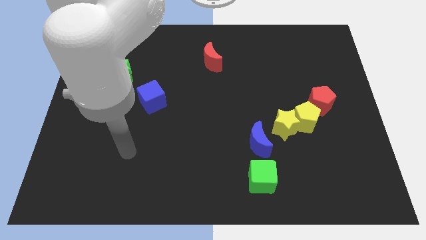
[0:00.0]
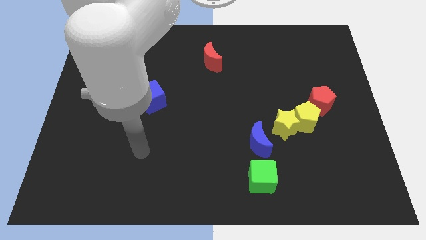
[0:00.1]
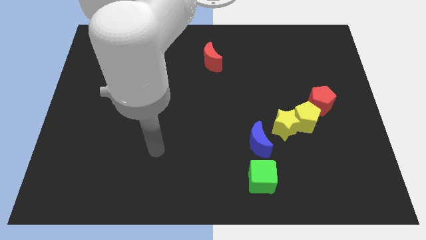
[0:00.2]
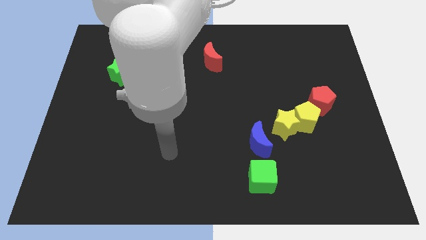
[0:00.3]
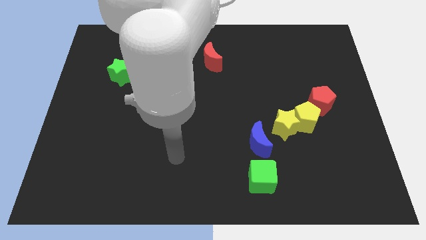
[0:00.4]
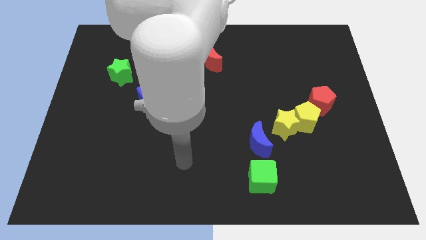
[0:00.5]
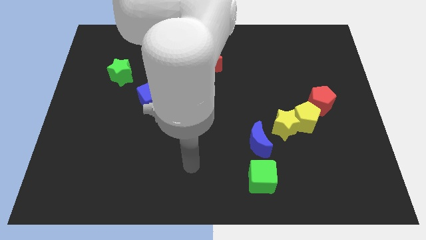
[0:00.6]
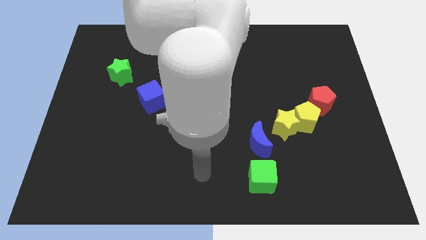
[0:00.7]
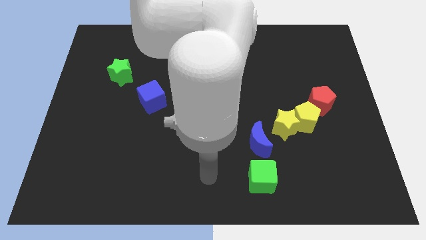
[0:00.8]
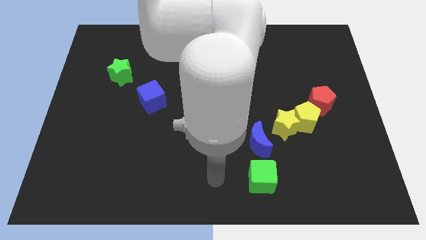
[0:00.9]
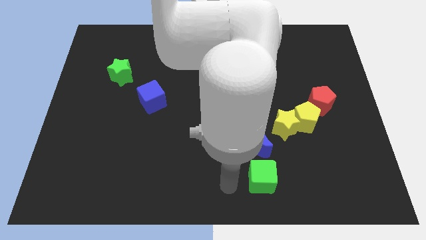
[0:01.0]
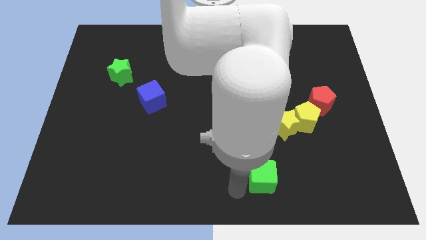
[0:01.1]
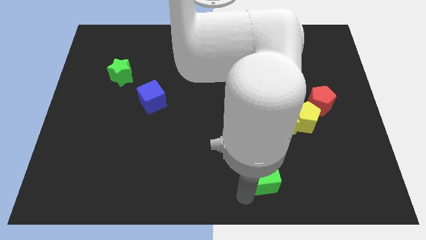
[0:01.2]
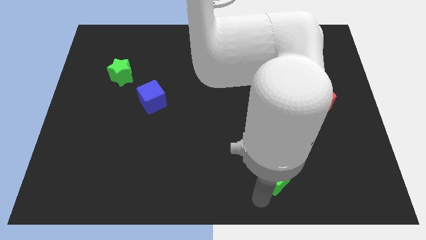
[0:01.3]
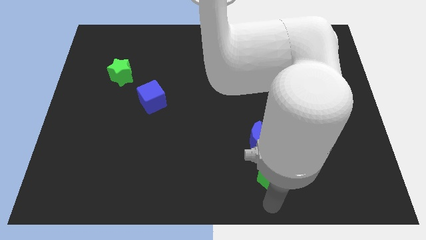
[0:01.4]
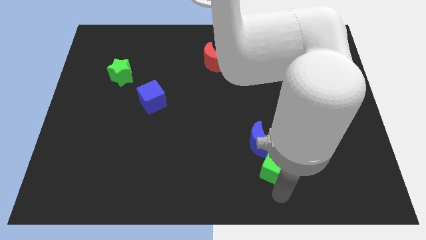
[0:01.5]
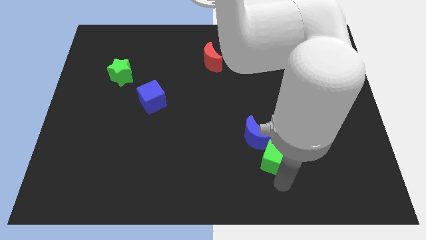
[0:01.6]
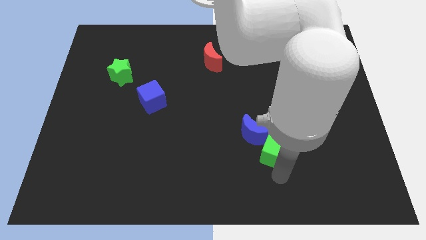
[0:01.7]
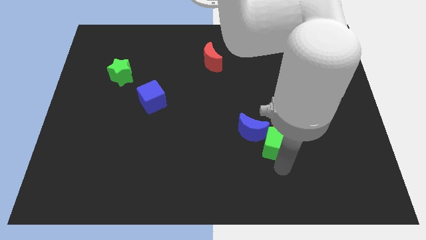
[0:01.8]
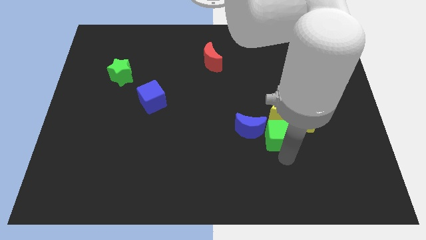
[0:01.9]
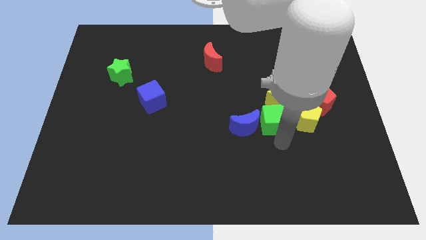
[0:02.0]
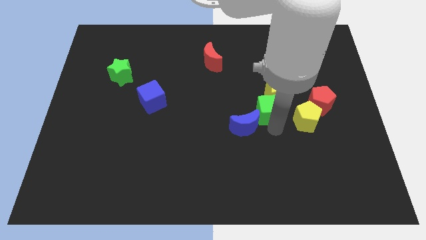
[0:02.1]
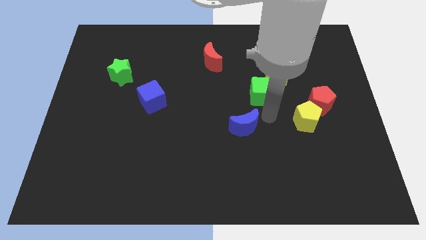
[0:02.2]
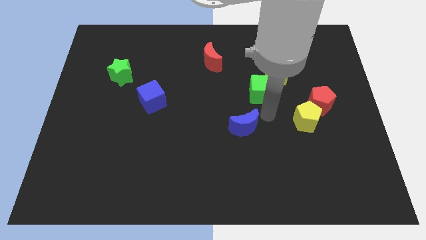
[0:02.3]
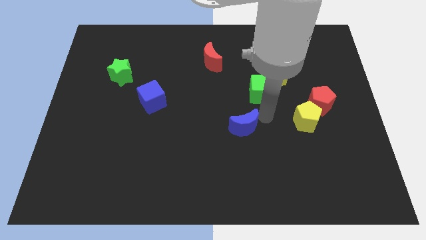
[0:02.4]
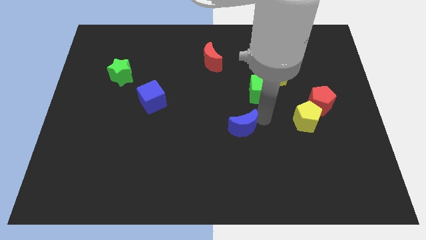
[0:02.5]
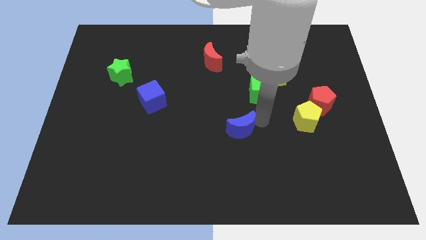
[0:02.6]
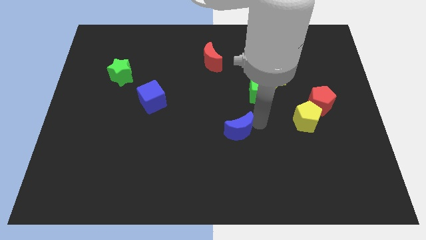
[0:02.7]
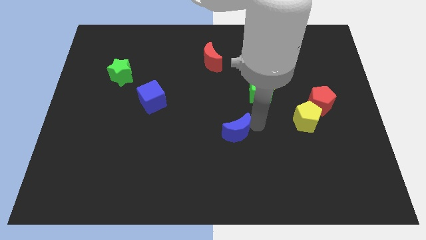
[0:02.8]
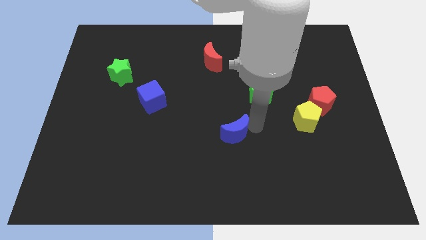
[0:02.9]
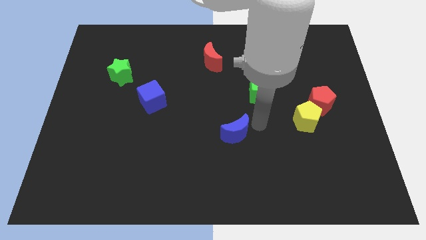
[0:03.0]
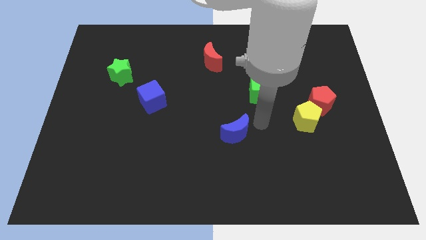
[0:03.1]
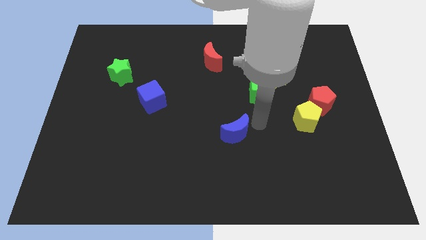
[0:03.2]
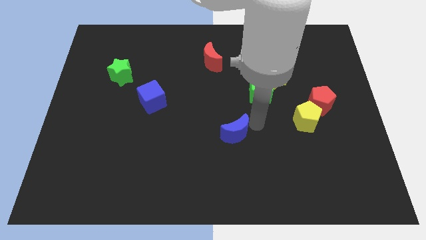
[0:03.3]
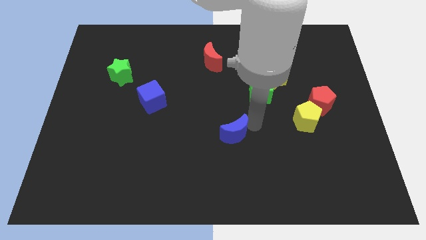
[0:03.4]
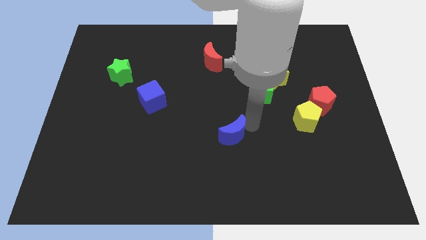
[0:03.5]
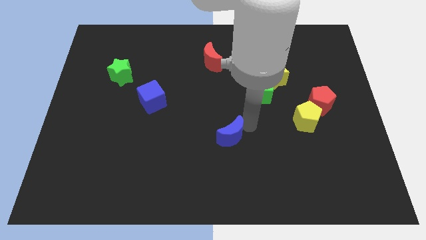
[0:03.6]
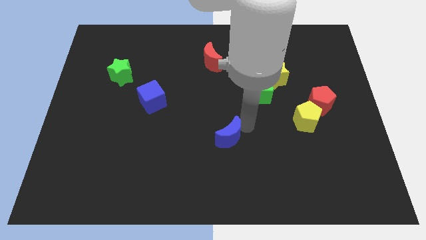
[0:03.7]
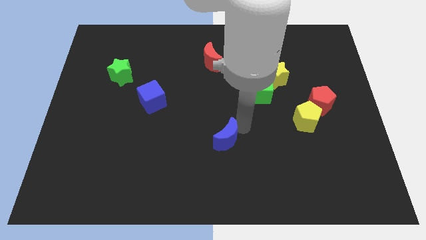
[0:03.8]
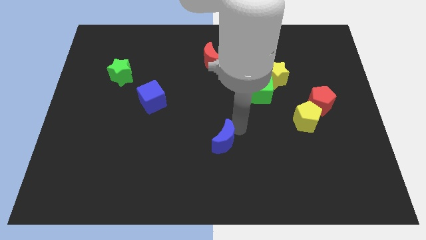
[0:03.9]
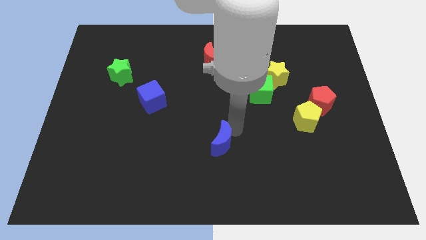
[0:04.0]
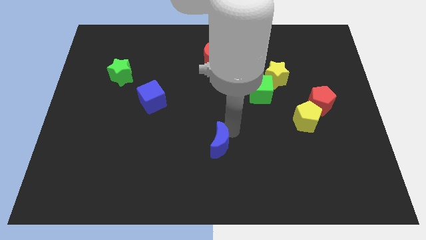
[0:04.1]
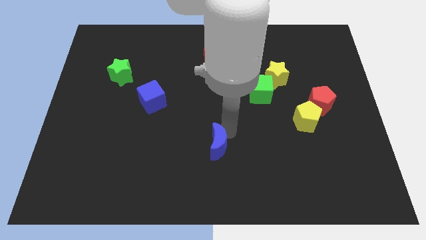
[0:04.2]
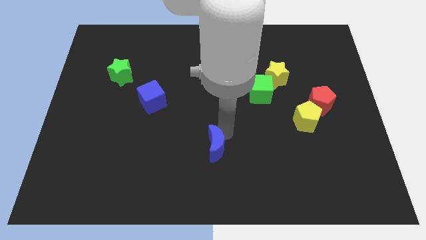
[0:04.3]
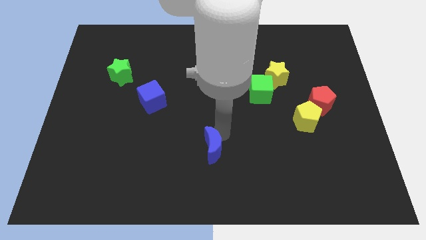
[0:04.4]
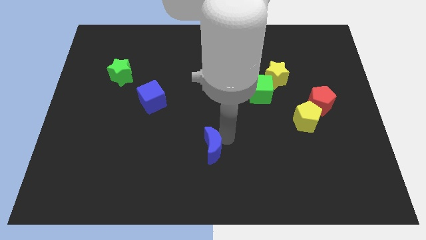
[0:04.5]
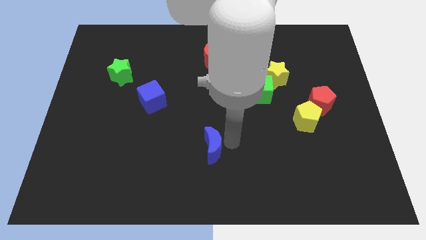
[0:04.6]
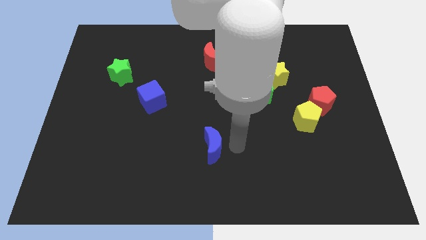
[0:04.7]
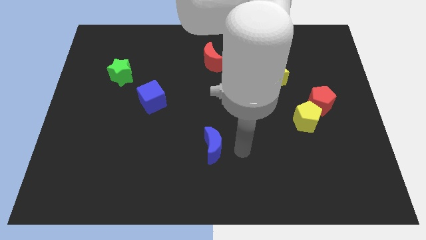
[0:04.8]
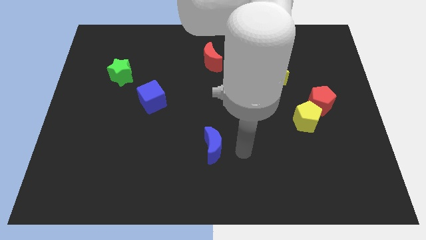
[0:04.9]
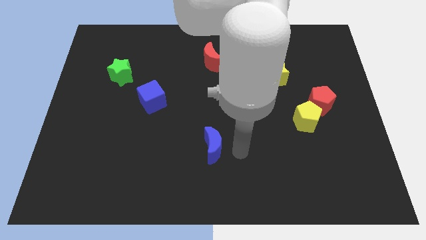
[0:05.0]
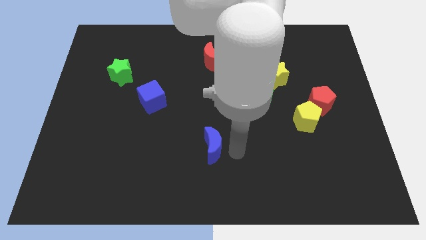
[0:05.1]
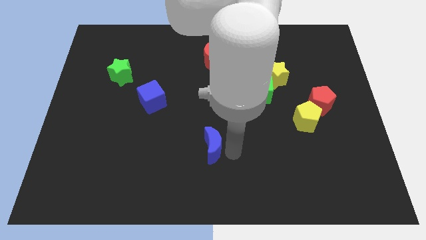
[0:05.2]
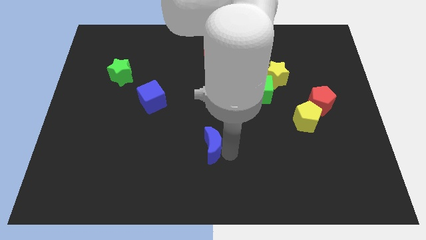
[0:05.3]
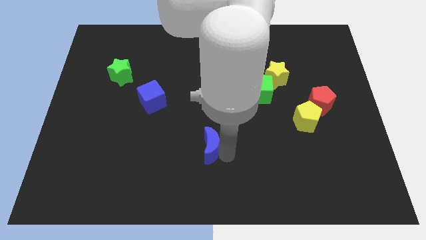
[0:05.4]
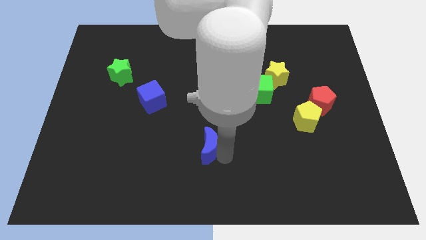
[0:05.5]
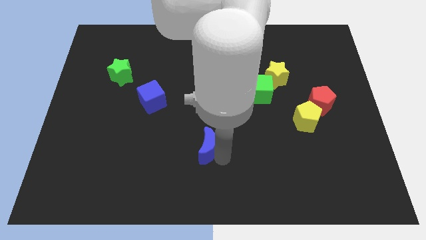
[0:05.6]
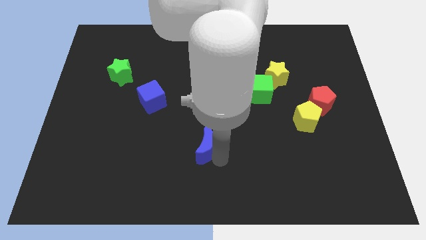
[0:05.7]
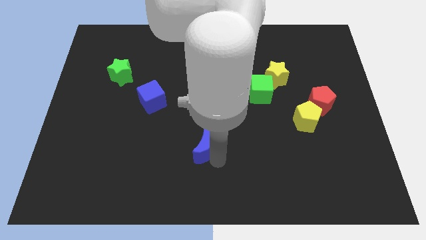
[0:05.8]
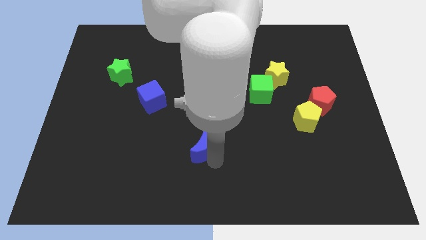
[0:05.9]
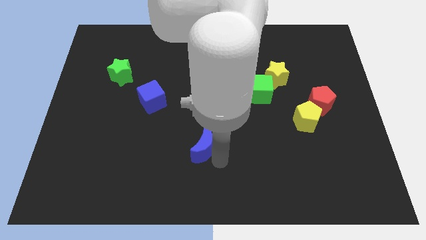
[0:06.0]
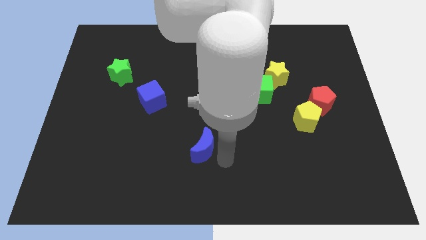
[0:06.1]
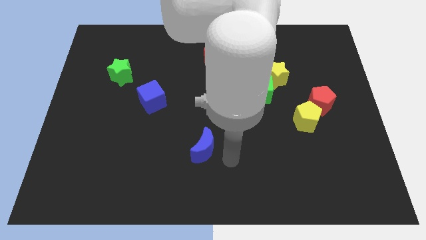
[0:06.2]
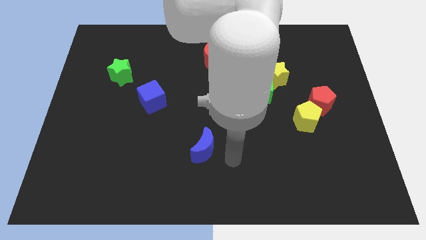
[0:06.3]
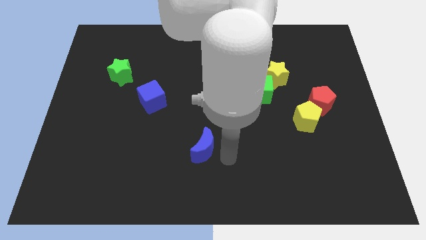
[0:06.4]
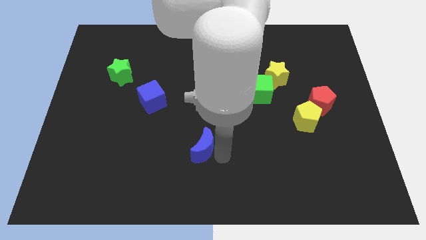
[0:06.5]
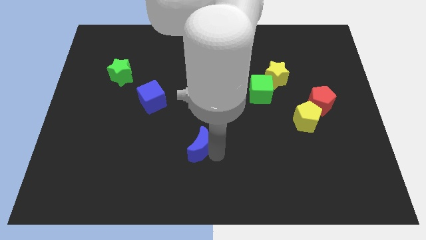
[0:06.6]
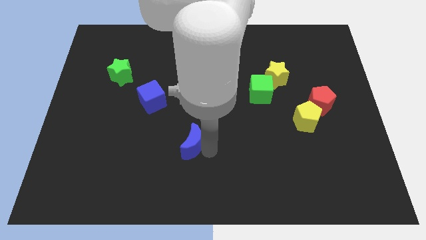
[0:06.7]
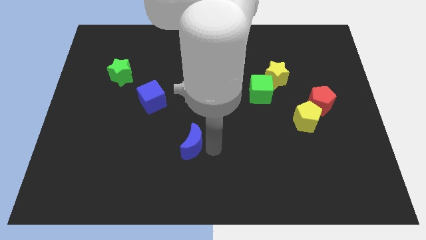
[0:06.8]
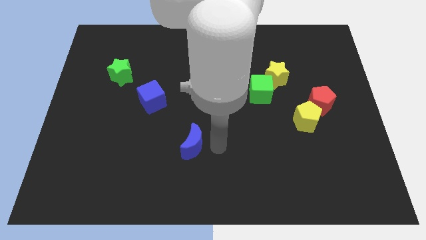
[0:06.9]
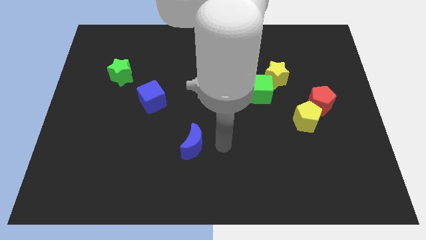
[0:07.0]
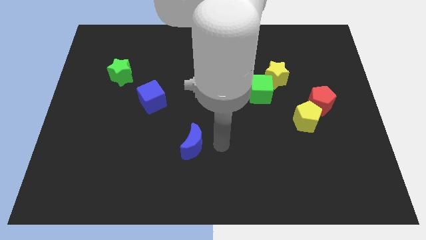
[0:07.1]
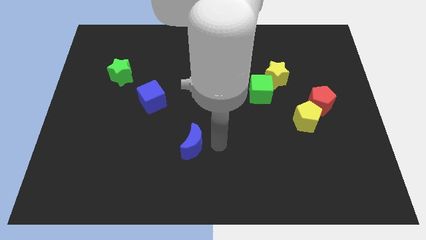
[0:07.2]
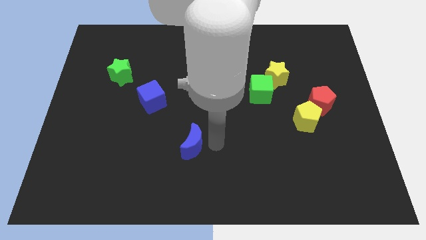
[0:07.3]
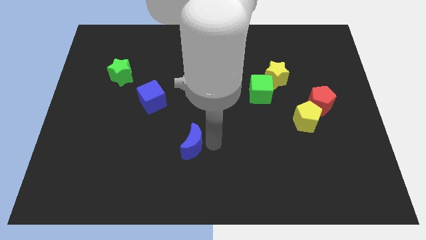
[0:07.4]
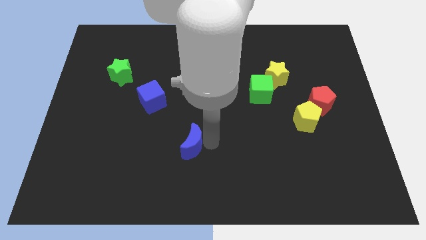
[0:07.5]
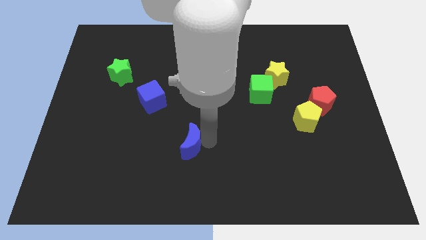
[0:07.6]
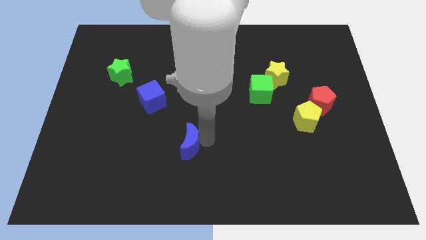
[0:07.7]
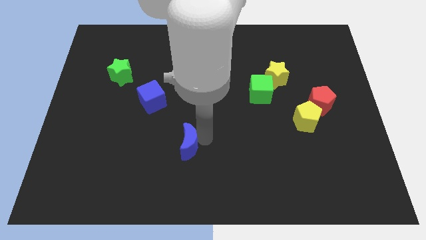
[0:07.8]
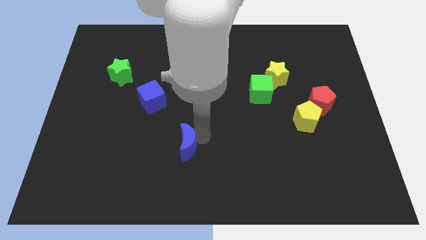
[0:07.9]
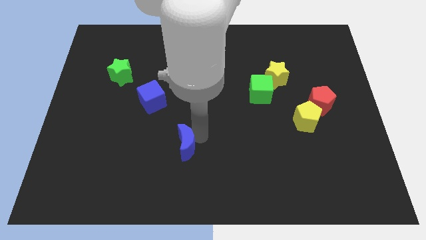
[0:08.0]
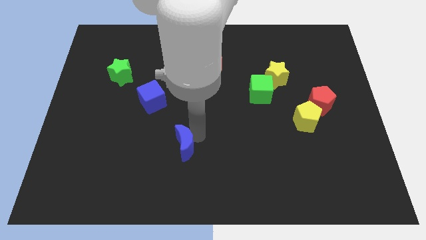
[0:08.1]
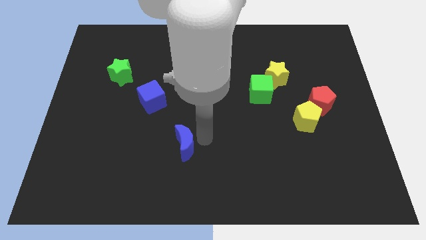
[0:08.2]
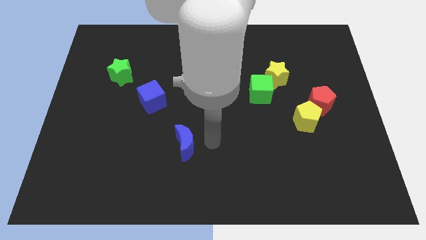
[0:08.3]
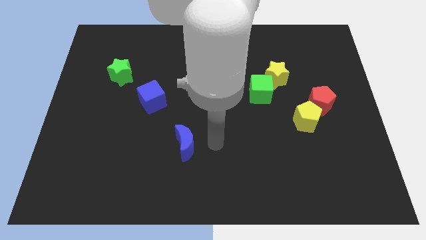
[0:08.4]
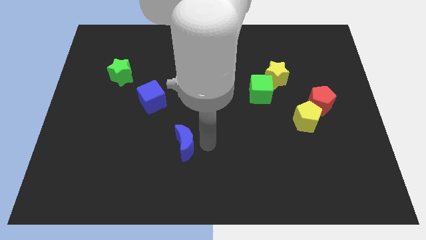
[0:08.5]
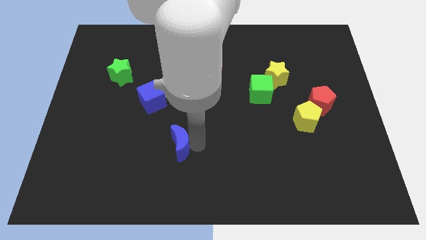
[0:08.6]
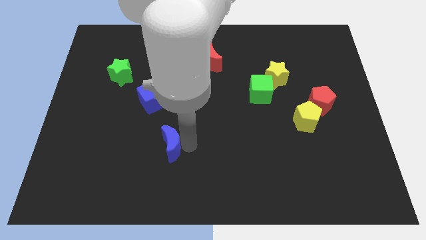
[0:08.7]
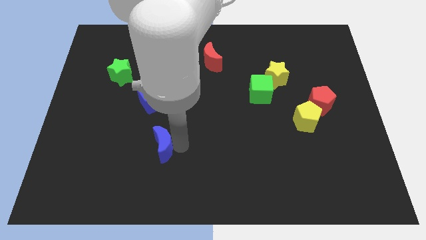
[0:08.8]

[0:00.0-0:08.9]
push the blue moon to the left
